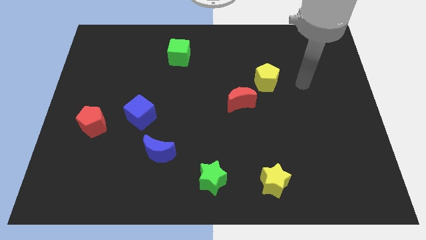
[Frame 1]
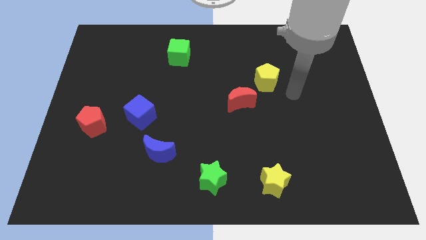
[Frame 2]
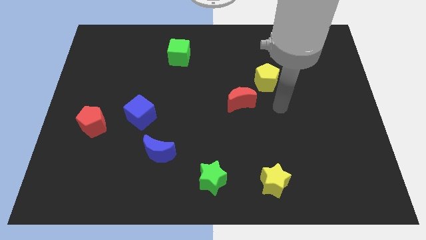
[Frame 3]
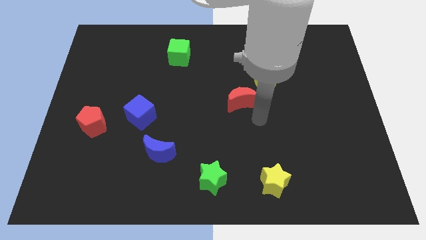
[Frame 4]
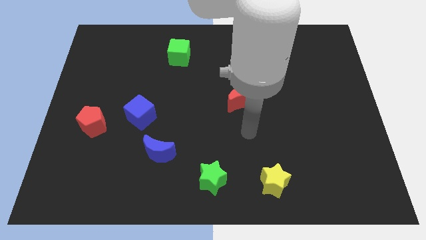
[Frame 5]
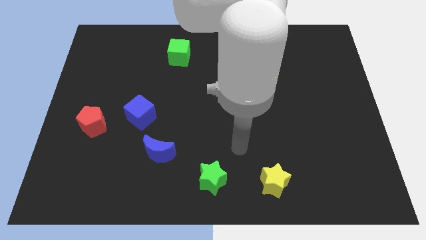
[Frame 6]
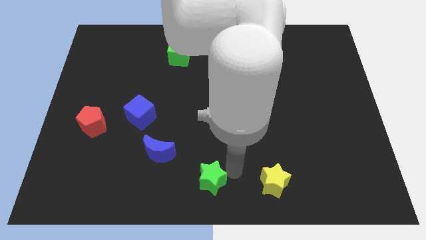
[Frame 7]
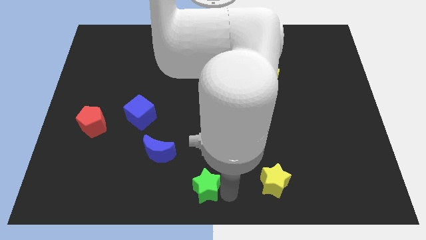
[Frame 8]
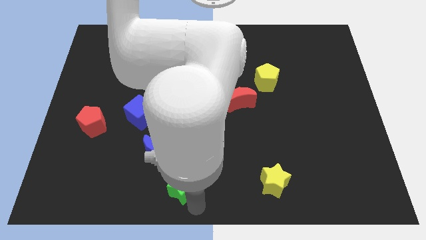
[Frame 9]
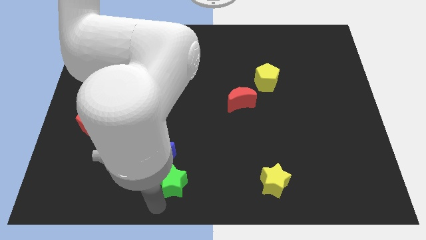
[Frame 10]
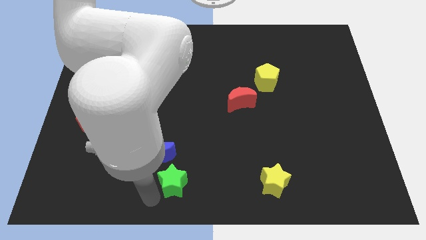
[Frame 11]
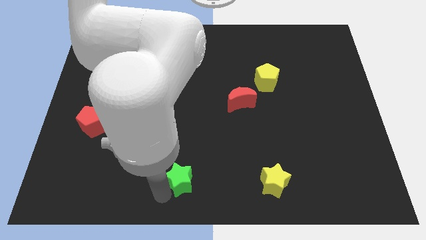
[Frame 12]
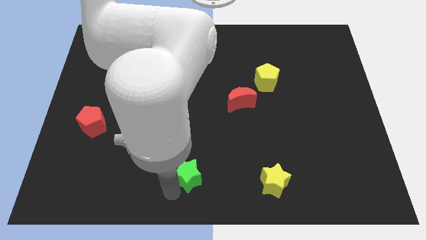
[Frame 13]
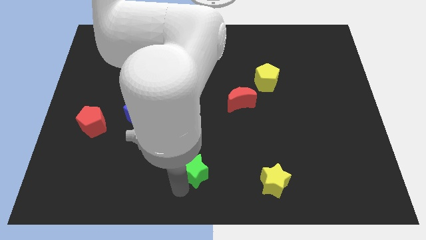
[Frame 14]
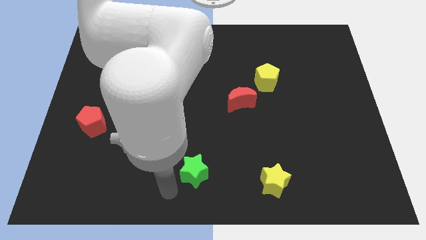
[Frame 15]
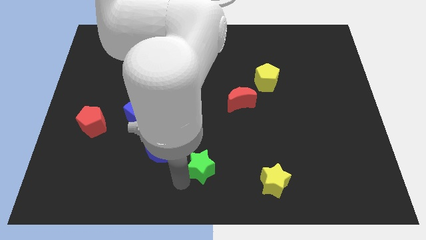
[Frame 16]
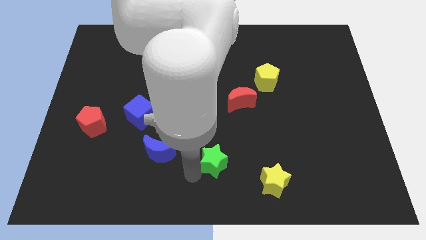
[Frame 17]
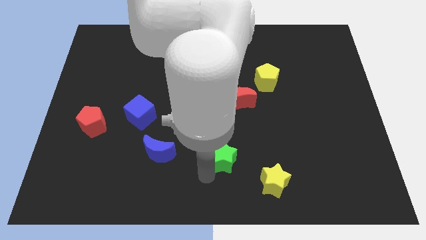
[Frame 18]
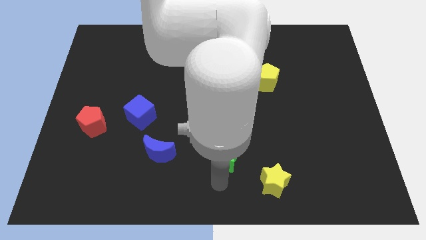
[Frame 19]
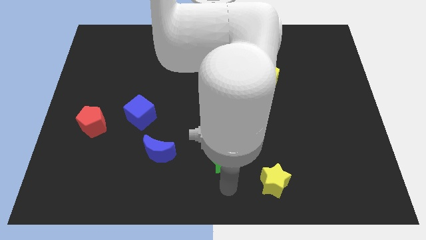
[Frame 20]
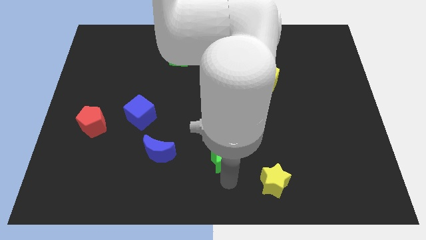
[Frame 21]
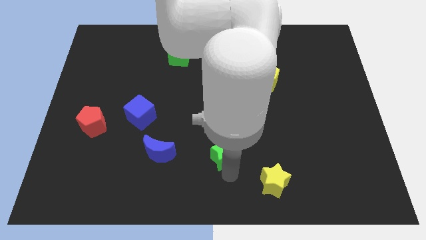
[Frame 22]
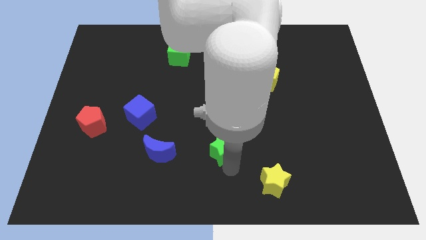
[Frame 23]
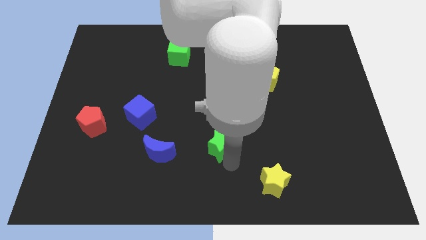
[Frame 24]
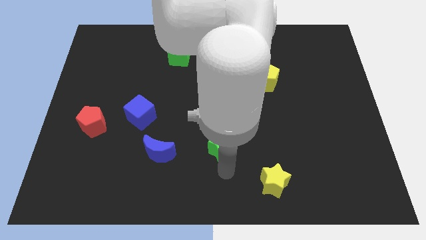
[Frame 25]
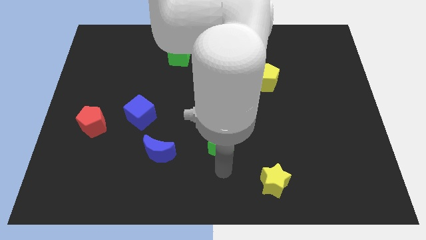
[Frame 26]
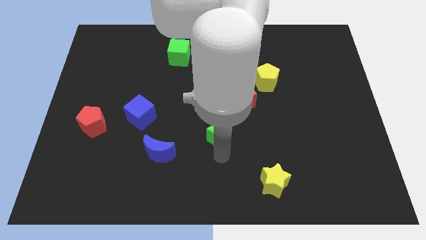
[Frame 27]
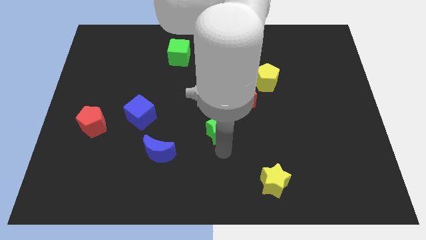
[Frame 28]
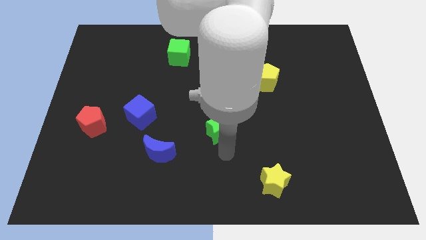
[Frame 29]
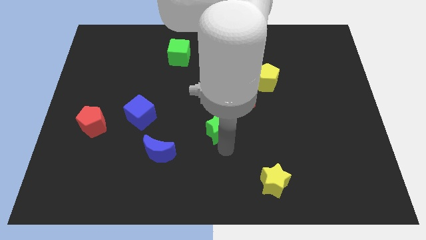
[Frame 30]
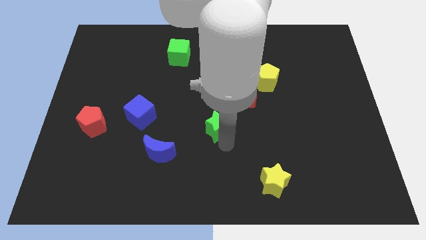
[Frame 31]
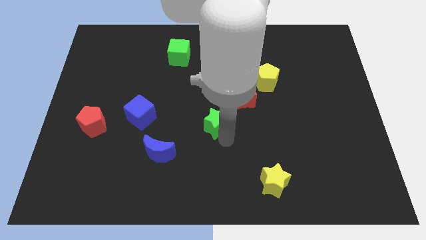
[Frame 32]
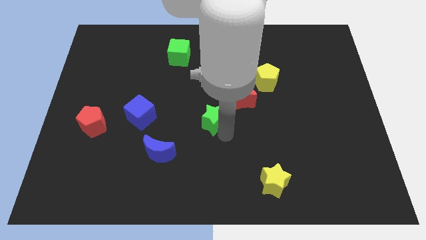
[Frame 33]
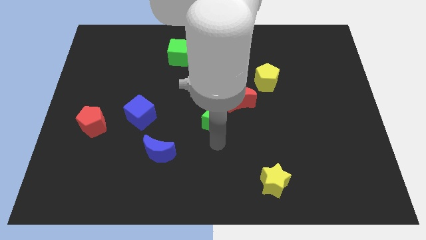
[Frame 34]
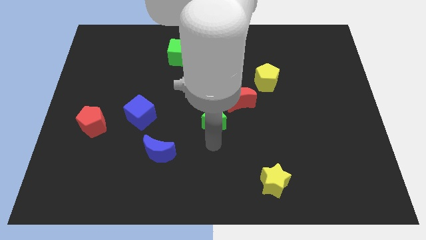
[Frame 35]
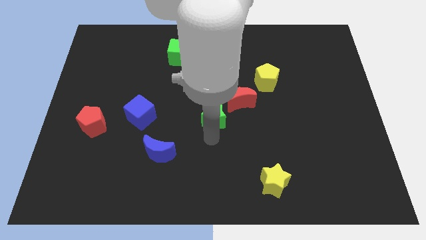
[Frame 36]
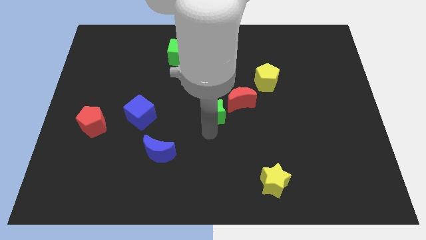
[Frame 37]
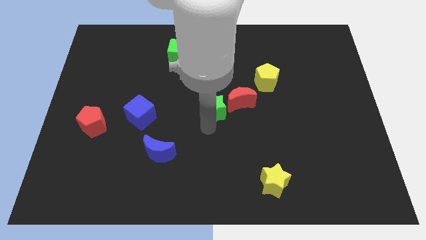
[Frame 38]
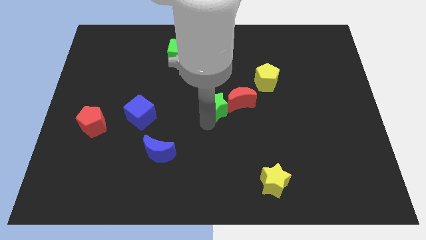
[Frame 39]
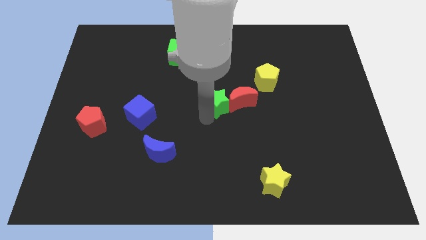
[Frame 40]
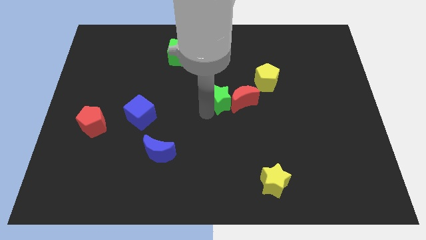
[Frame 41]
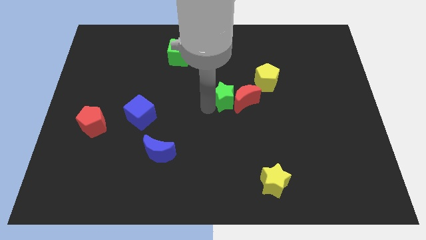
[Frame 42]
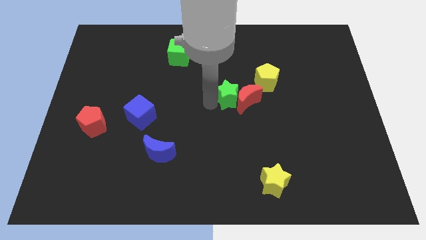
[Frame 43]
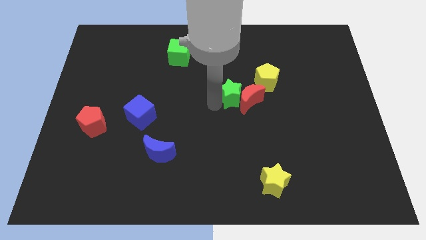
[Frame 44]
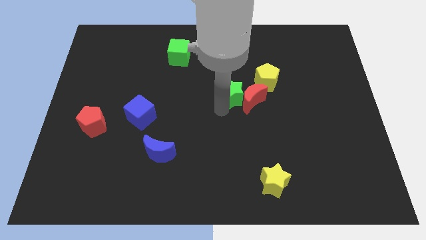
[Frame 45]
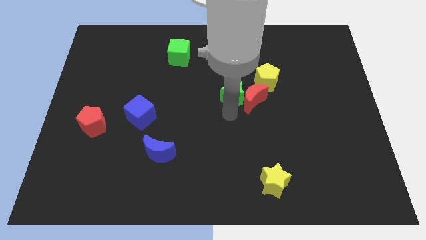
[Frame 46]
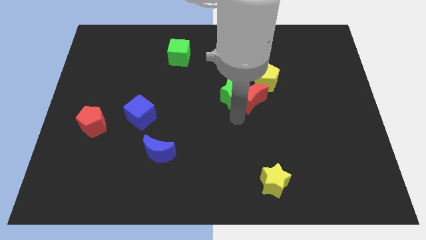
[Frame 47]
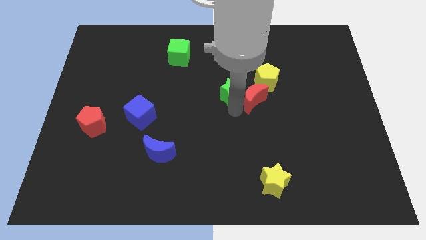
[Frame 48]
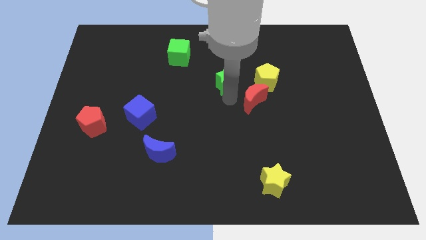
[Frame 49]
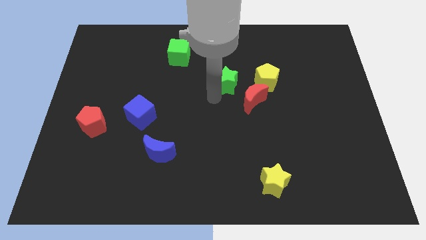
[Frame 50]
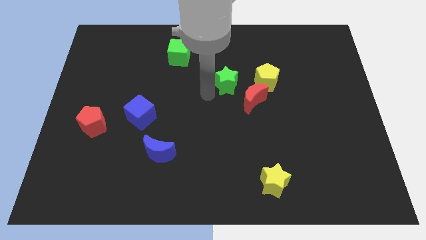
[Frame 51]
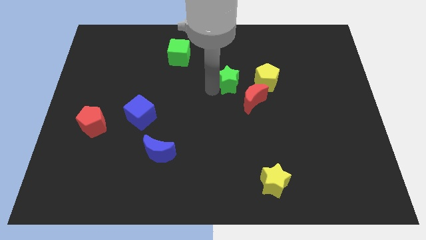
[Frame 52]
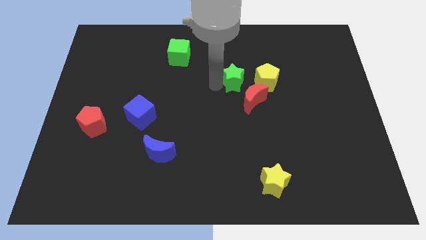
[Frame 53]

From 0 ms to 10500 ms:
move the green star to the top side of the red moon

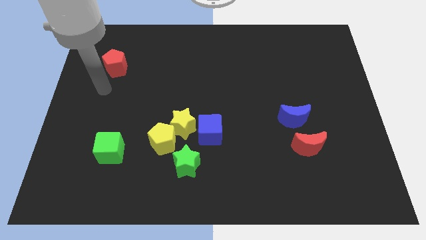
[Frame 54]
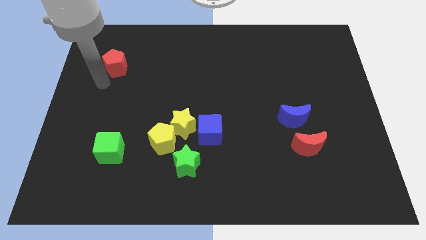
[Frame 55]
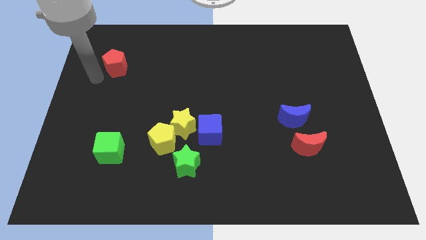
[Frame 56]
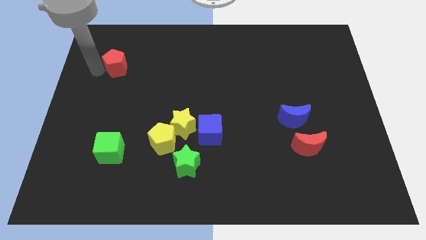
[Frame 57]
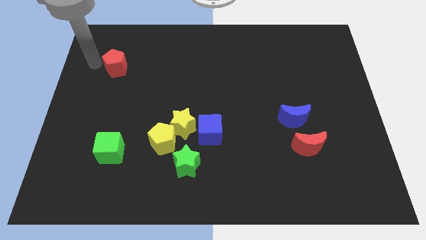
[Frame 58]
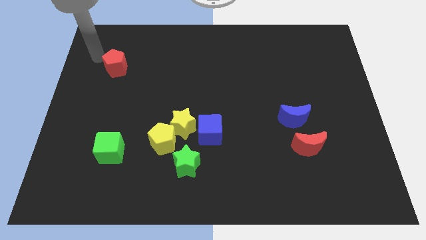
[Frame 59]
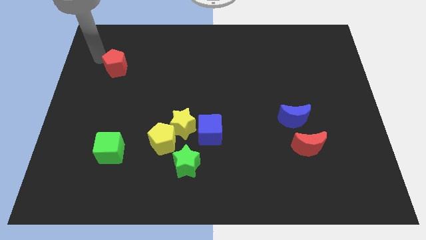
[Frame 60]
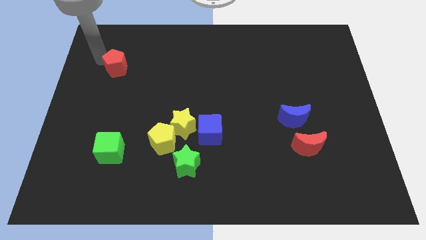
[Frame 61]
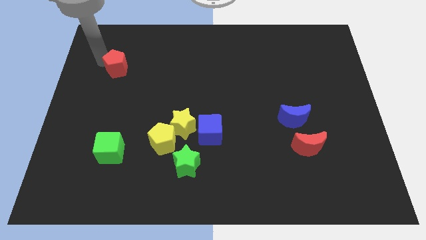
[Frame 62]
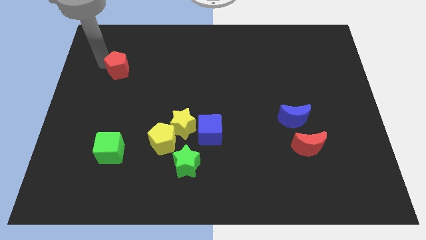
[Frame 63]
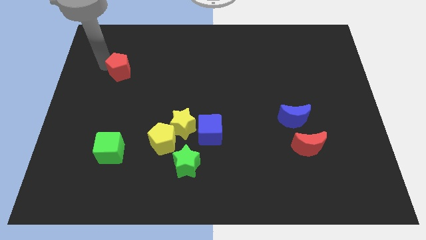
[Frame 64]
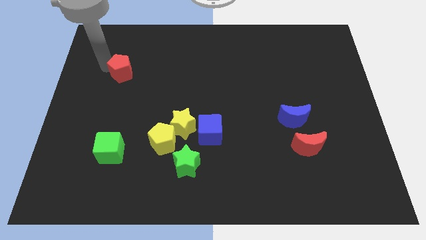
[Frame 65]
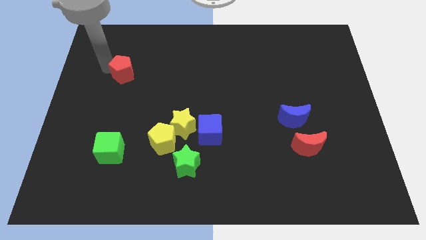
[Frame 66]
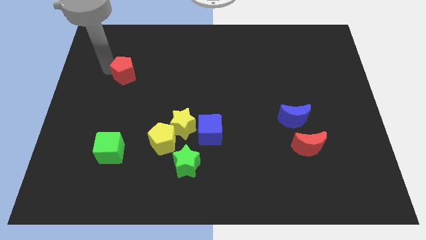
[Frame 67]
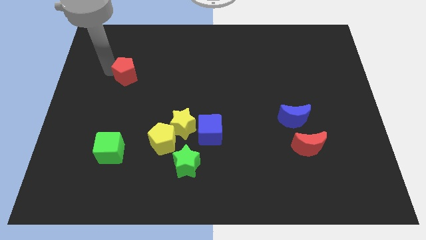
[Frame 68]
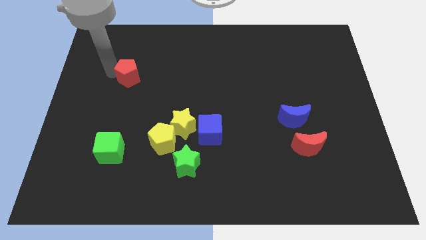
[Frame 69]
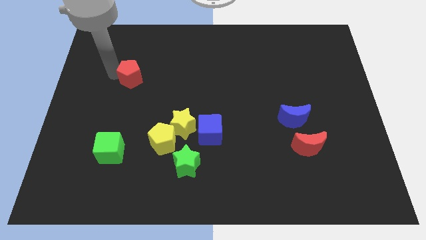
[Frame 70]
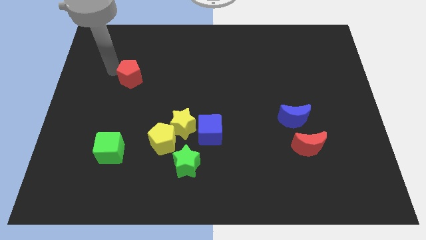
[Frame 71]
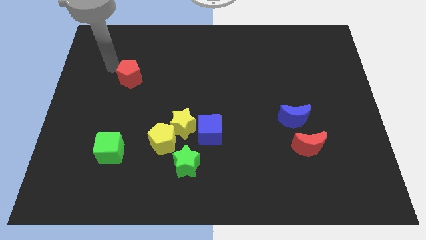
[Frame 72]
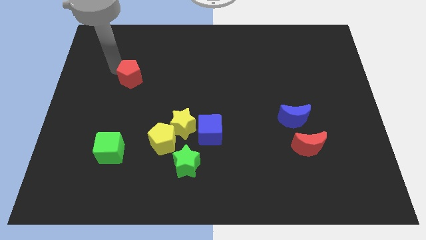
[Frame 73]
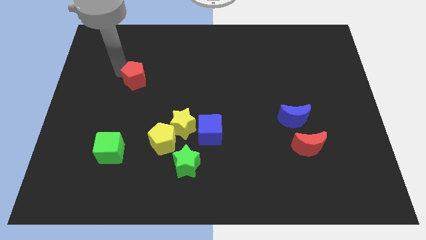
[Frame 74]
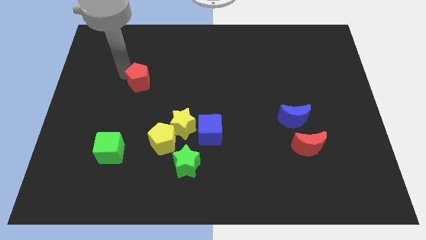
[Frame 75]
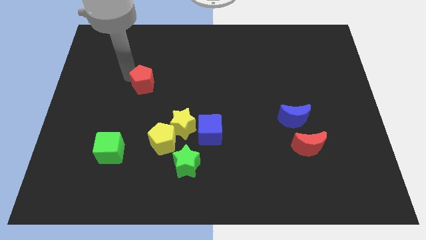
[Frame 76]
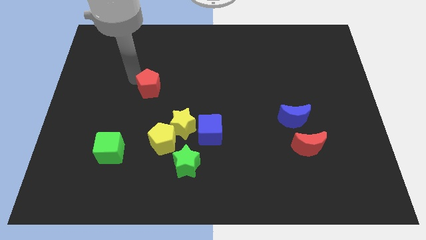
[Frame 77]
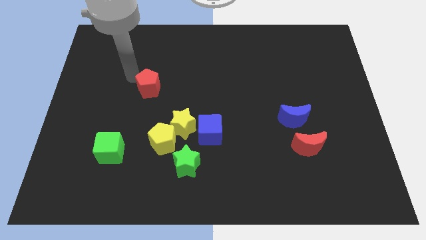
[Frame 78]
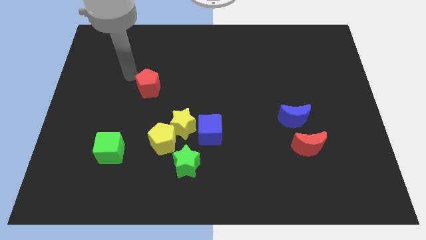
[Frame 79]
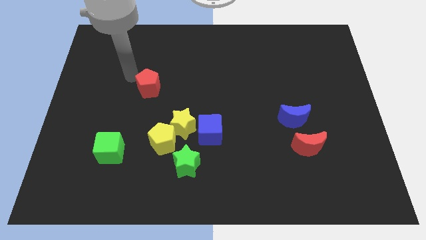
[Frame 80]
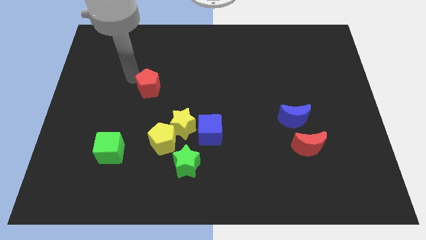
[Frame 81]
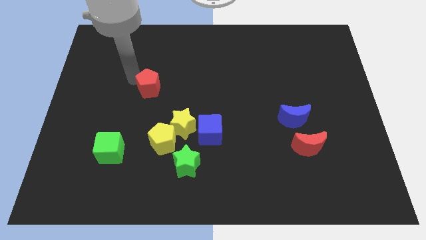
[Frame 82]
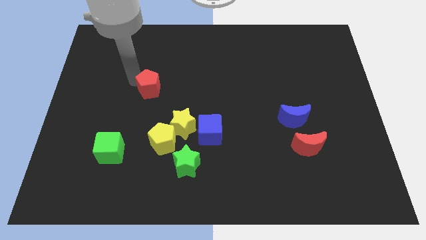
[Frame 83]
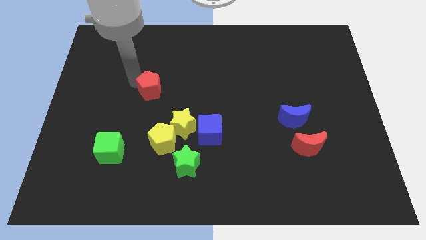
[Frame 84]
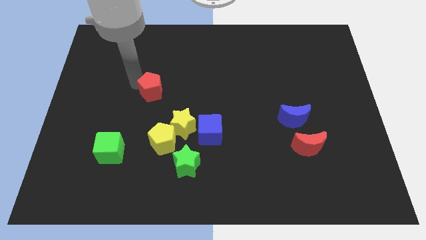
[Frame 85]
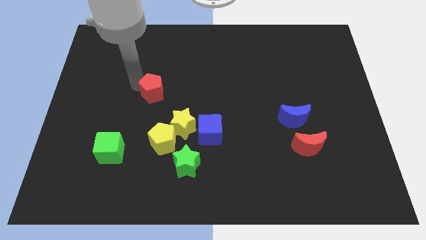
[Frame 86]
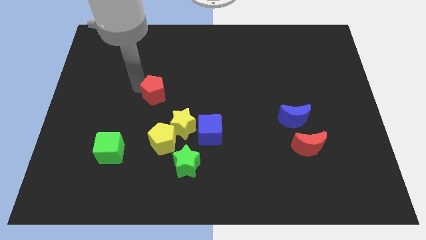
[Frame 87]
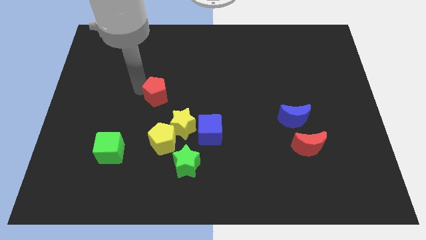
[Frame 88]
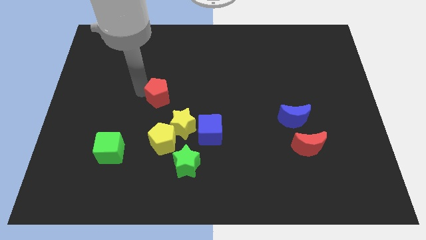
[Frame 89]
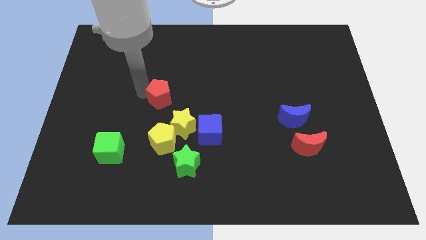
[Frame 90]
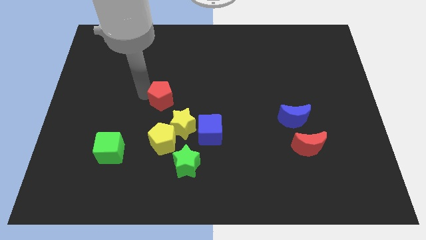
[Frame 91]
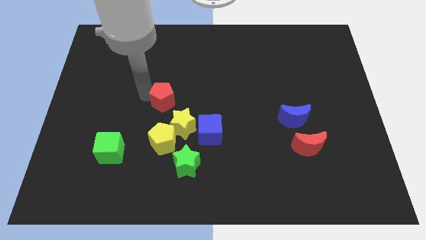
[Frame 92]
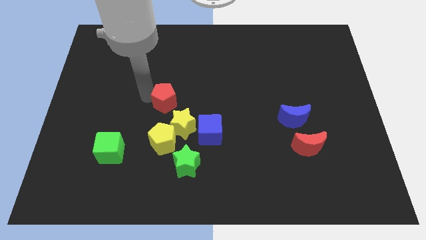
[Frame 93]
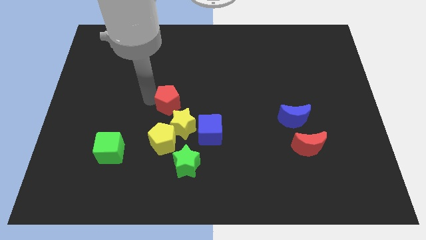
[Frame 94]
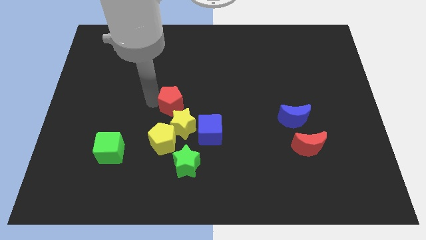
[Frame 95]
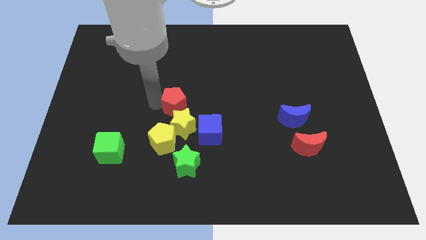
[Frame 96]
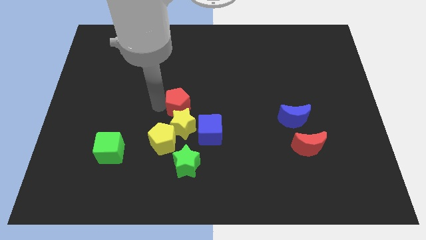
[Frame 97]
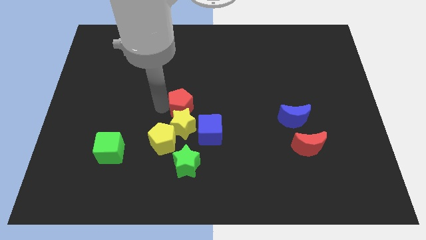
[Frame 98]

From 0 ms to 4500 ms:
slide the red pentagon to the top right side of the yellow star
